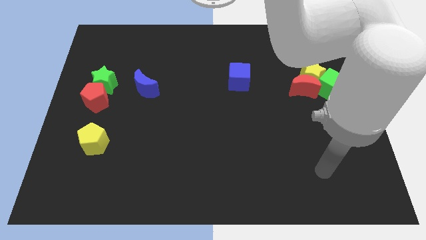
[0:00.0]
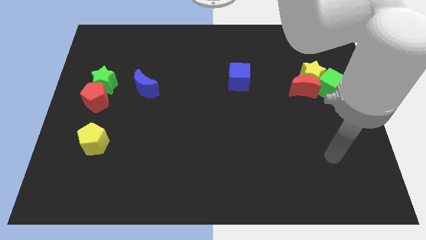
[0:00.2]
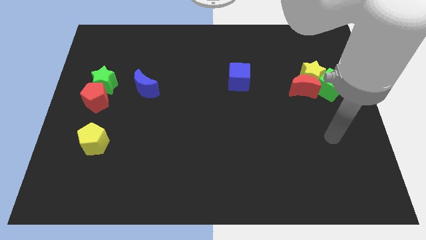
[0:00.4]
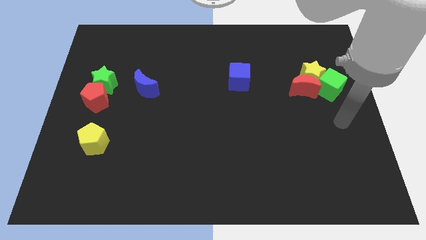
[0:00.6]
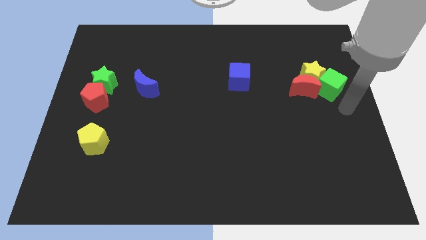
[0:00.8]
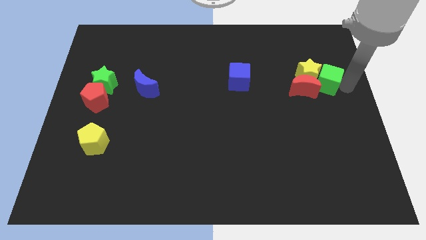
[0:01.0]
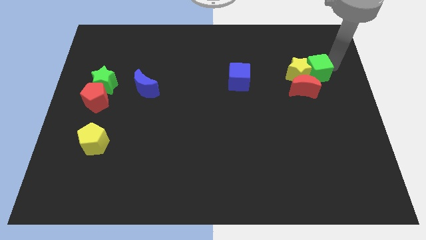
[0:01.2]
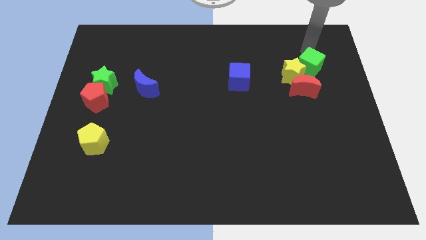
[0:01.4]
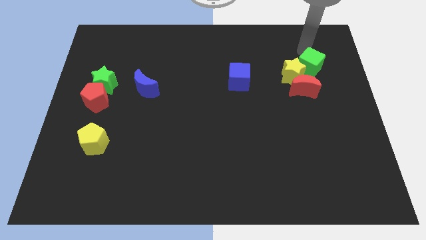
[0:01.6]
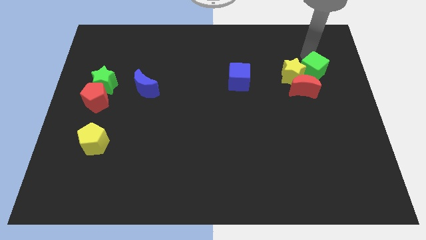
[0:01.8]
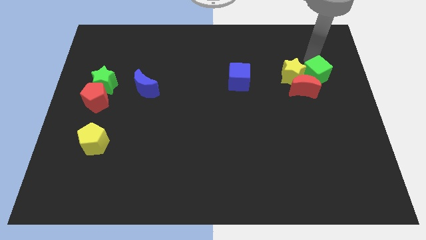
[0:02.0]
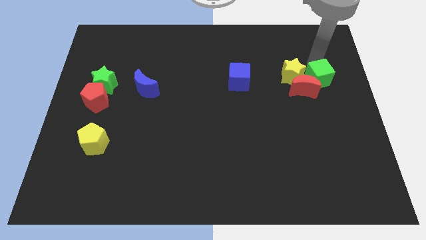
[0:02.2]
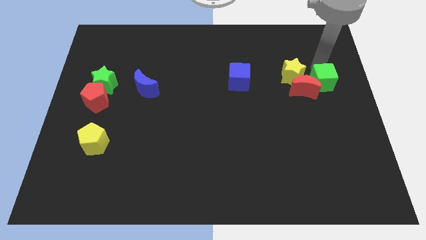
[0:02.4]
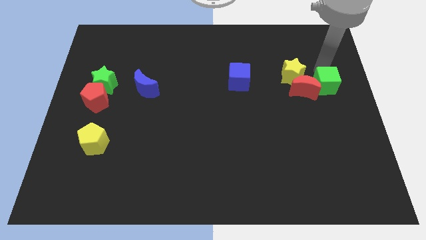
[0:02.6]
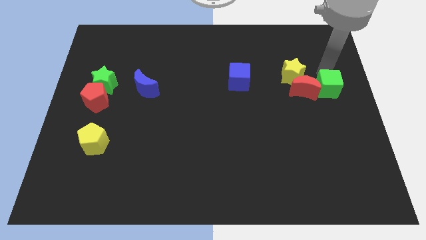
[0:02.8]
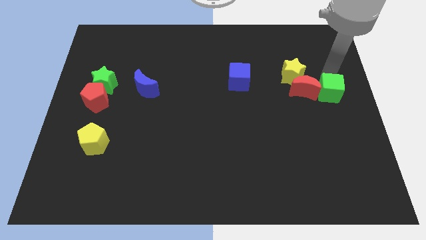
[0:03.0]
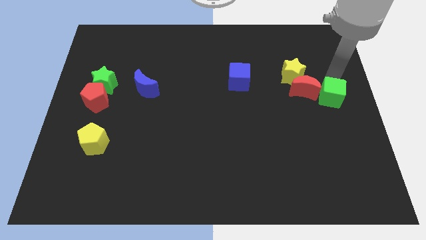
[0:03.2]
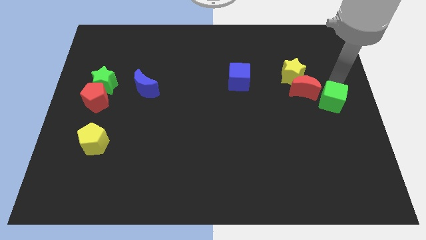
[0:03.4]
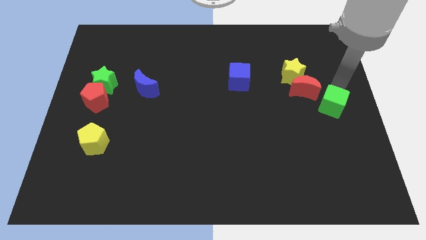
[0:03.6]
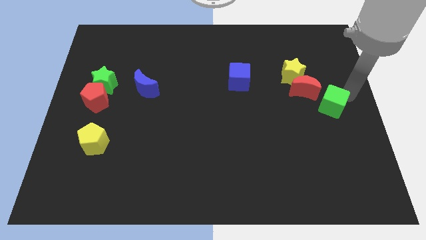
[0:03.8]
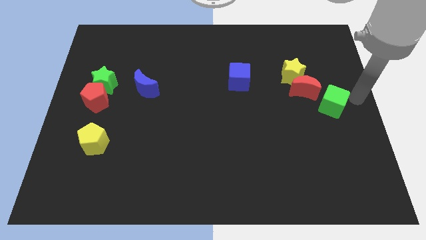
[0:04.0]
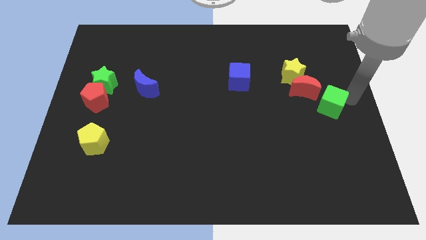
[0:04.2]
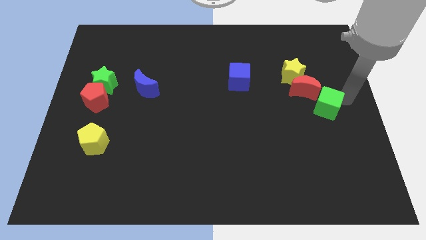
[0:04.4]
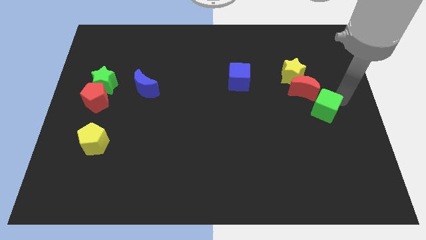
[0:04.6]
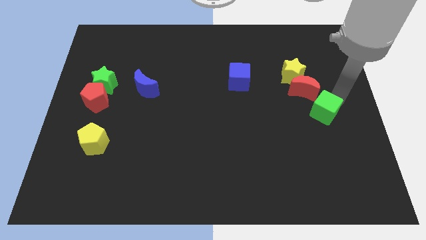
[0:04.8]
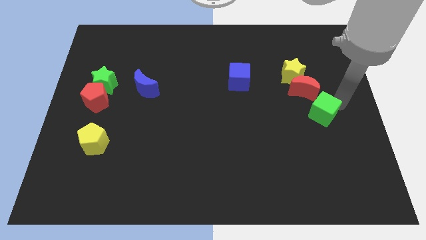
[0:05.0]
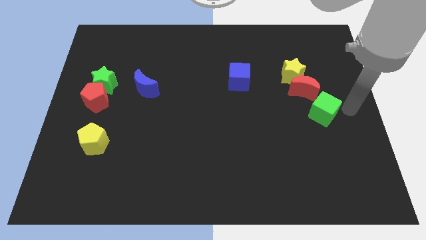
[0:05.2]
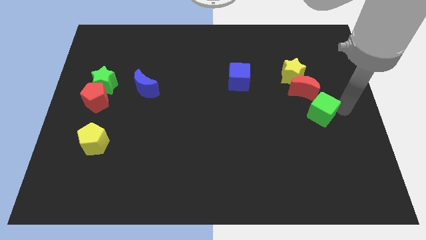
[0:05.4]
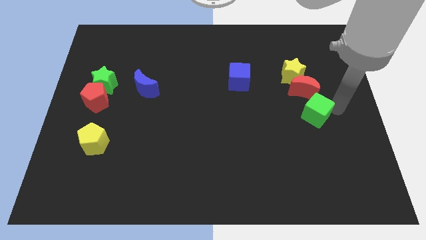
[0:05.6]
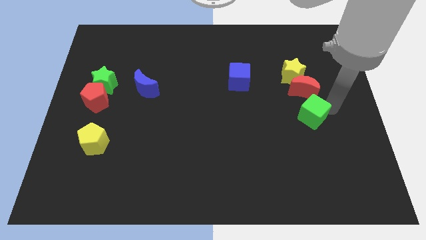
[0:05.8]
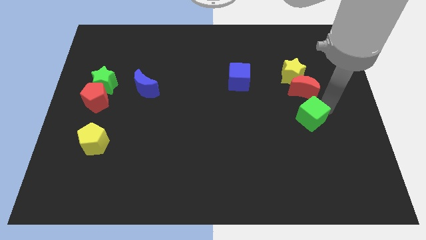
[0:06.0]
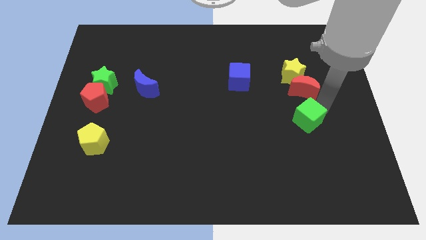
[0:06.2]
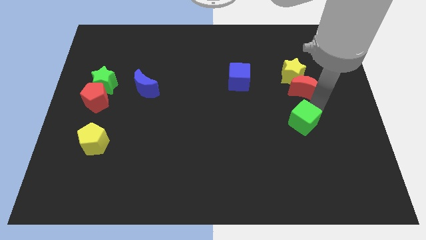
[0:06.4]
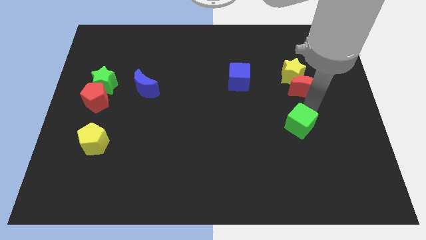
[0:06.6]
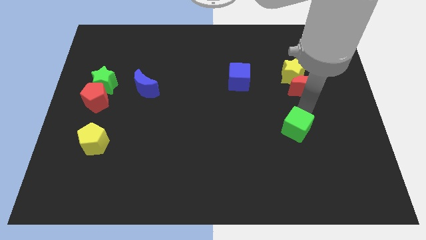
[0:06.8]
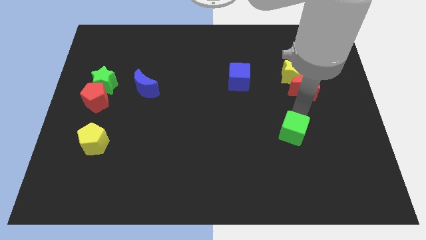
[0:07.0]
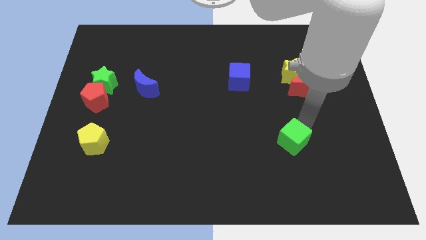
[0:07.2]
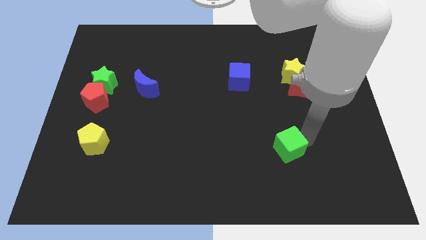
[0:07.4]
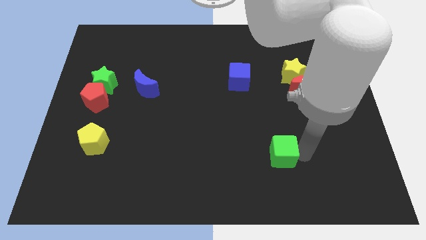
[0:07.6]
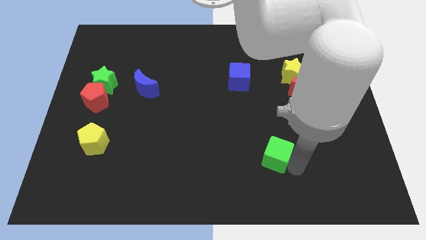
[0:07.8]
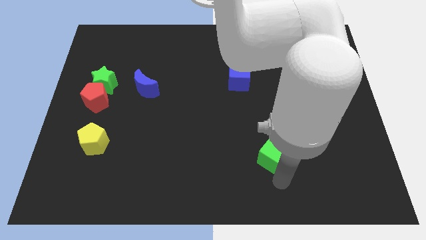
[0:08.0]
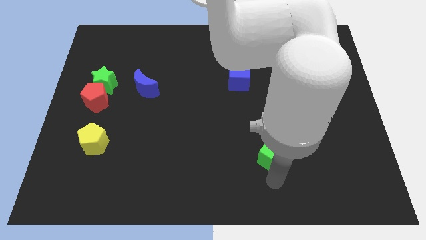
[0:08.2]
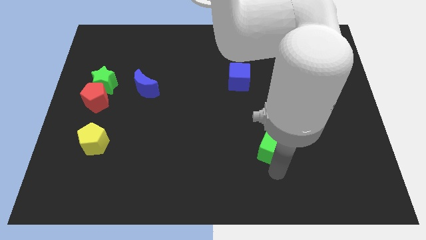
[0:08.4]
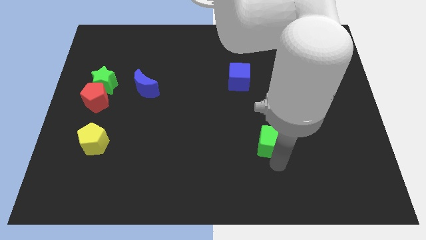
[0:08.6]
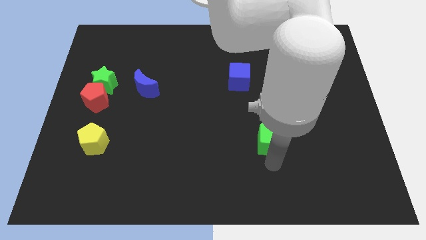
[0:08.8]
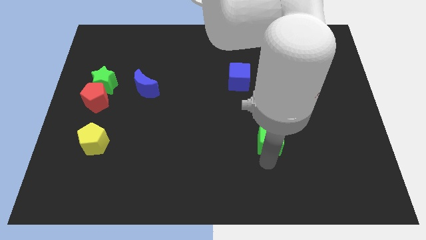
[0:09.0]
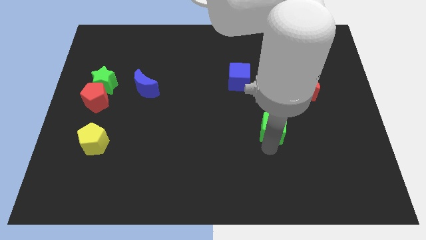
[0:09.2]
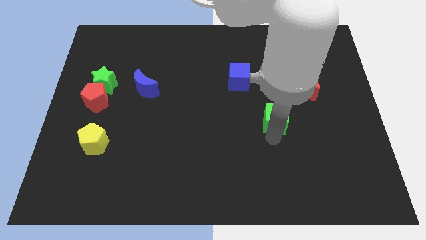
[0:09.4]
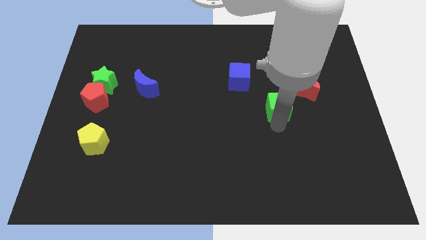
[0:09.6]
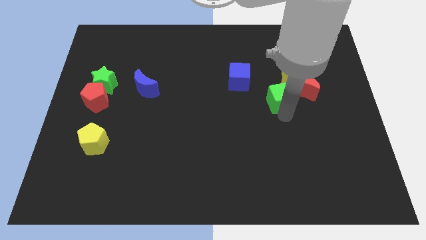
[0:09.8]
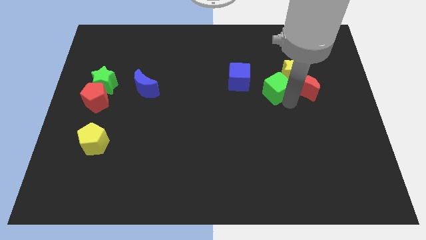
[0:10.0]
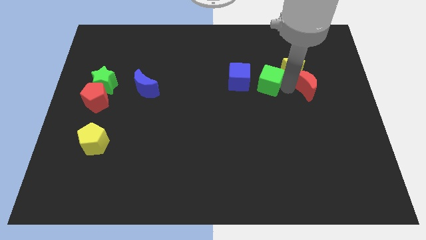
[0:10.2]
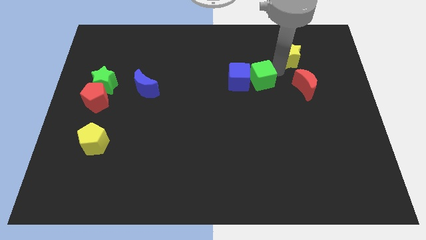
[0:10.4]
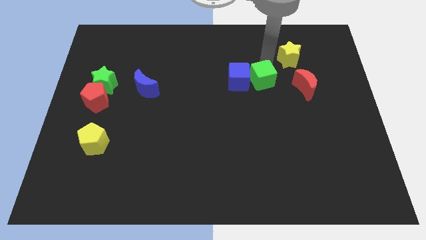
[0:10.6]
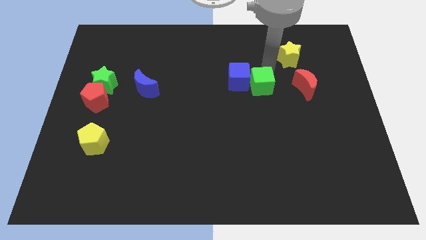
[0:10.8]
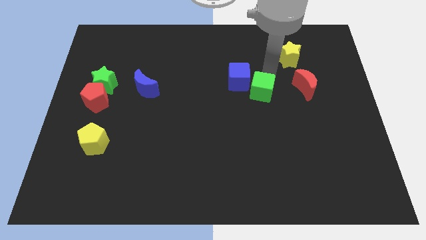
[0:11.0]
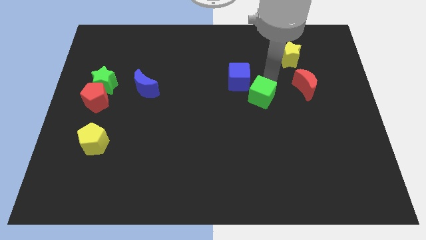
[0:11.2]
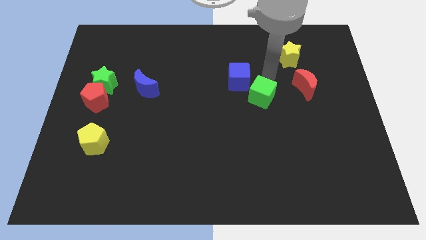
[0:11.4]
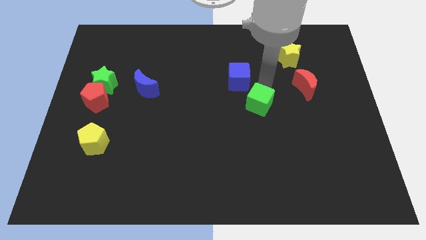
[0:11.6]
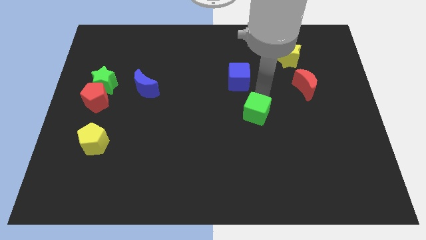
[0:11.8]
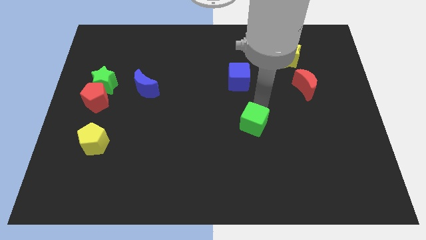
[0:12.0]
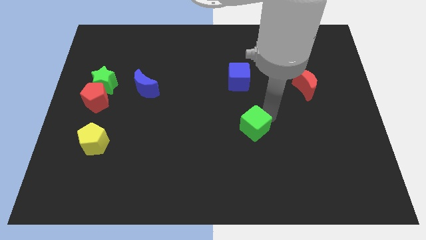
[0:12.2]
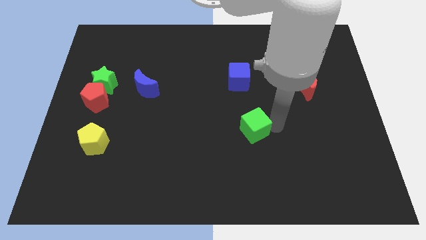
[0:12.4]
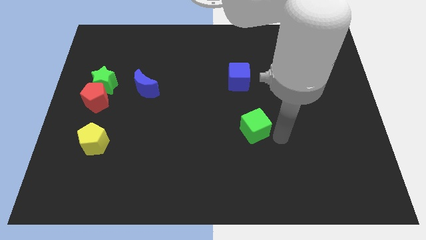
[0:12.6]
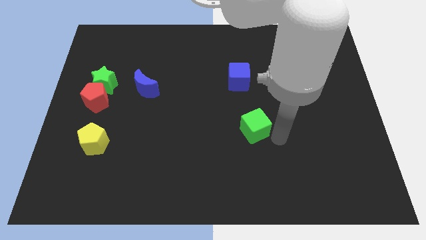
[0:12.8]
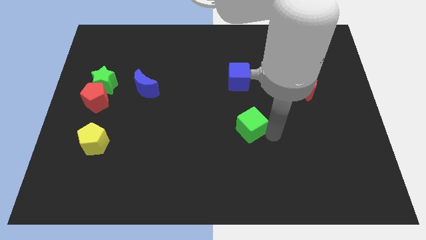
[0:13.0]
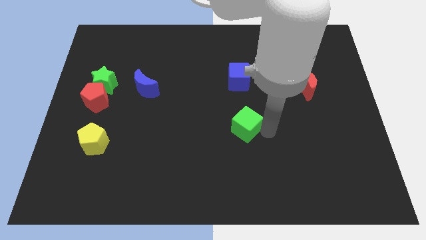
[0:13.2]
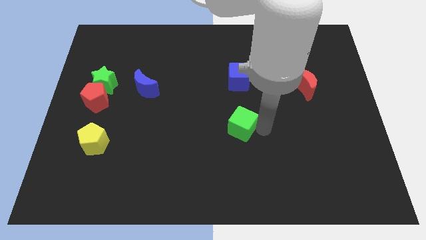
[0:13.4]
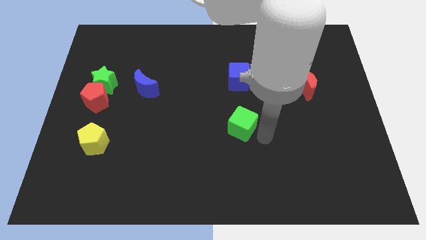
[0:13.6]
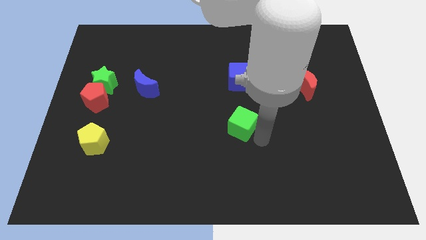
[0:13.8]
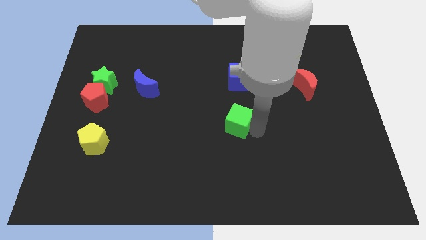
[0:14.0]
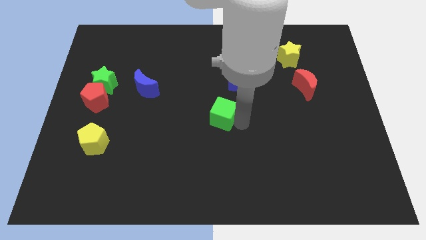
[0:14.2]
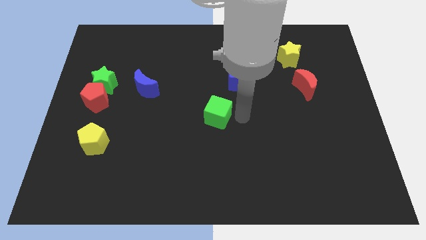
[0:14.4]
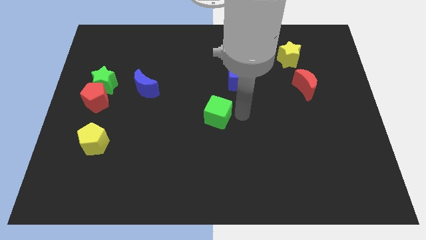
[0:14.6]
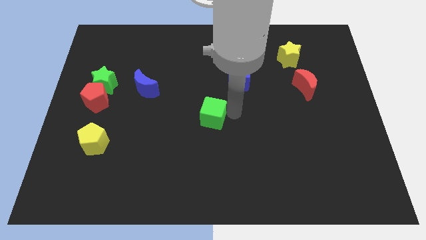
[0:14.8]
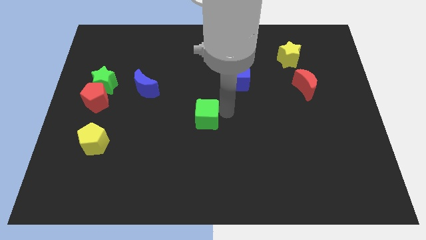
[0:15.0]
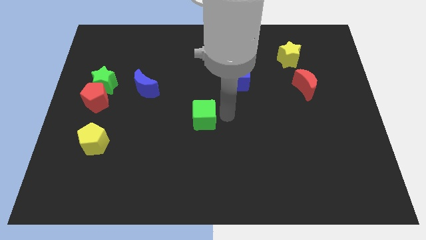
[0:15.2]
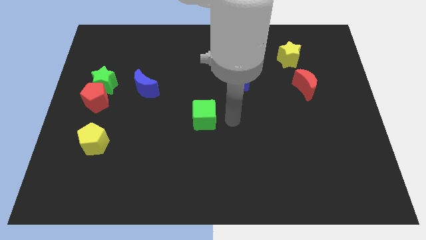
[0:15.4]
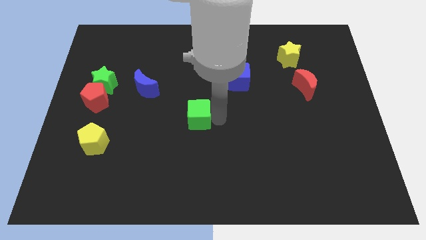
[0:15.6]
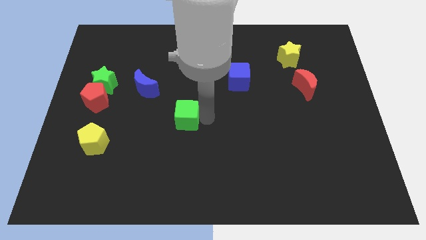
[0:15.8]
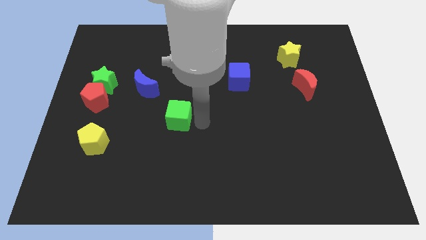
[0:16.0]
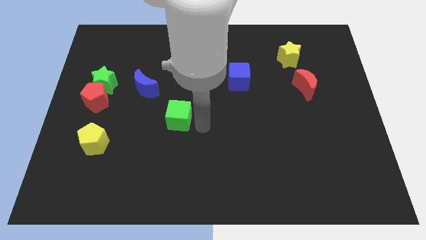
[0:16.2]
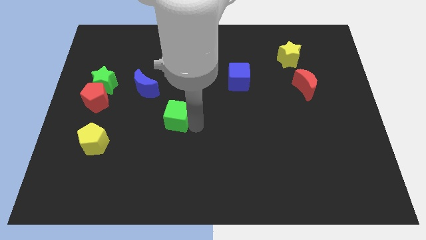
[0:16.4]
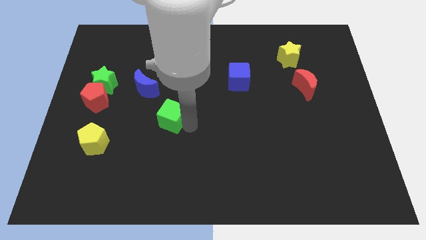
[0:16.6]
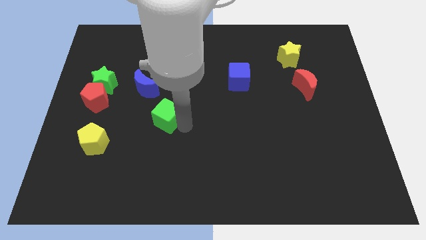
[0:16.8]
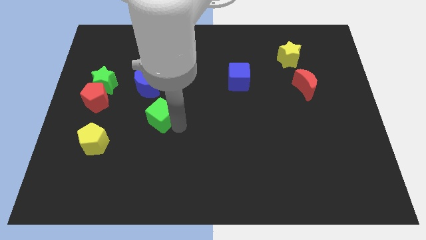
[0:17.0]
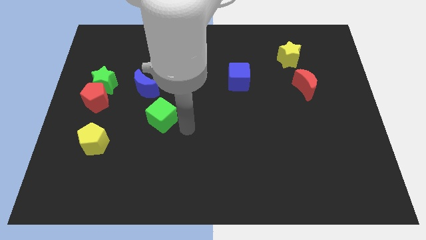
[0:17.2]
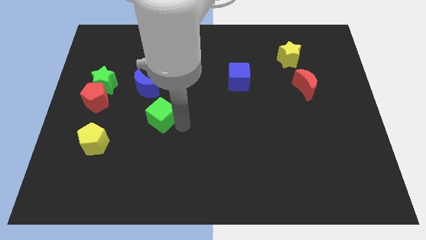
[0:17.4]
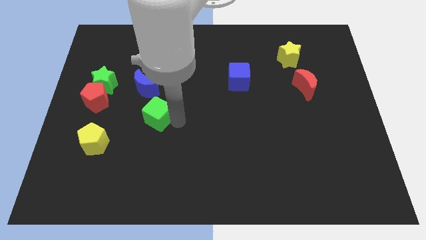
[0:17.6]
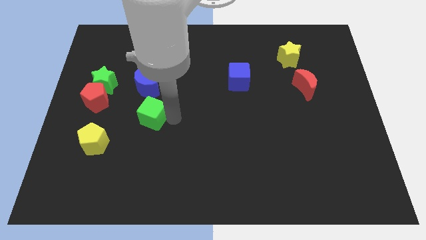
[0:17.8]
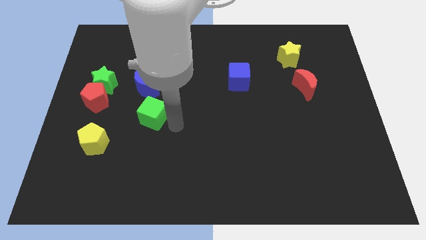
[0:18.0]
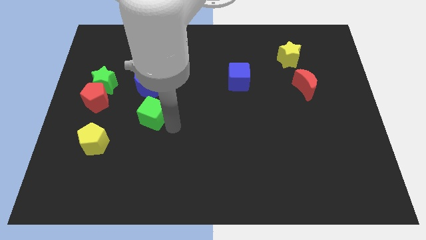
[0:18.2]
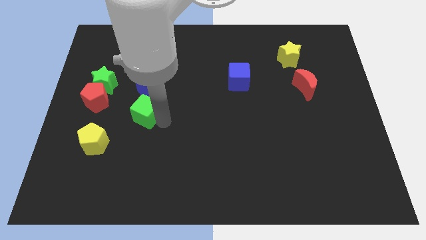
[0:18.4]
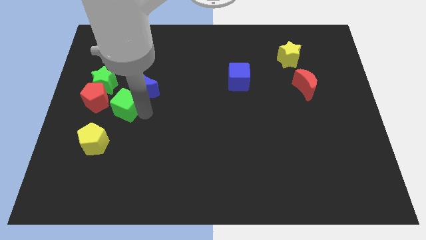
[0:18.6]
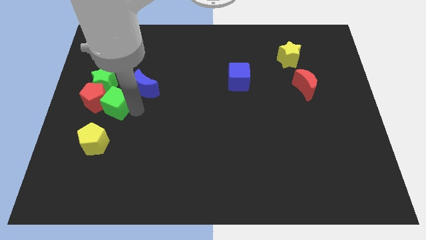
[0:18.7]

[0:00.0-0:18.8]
slide the green cube next to the red pentagon
